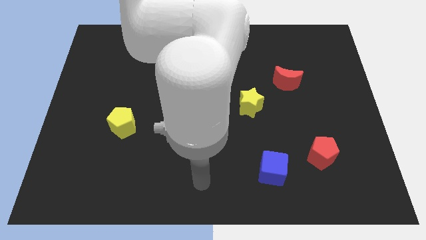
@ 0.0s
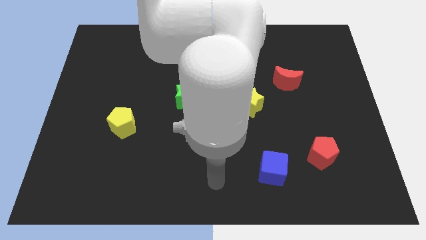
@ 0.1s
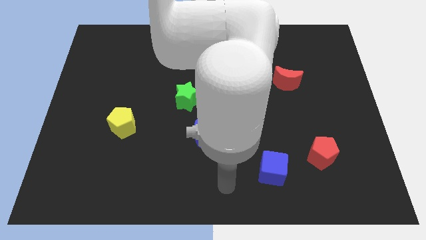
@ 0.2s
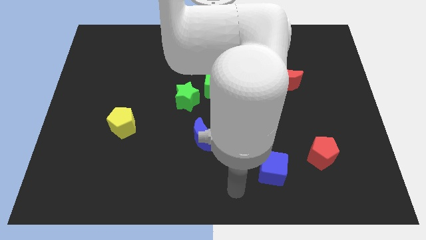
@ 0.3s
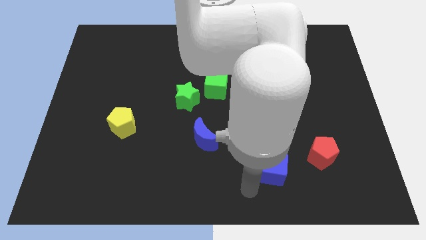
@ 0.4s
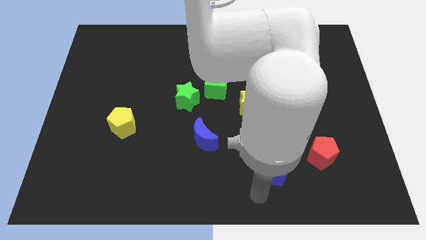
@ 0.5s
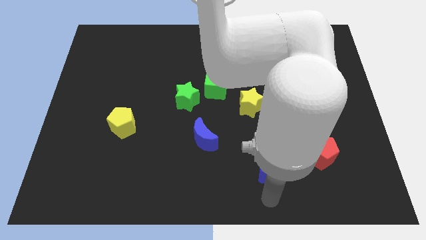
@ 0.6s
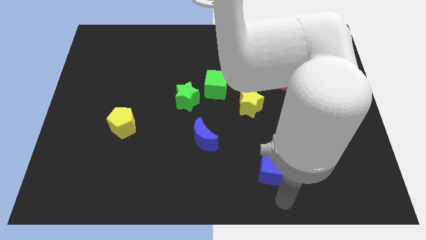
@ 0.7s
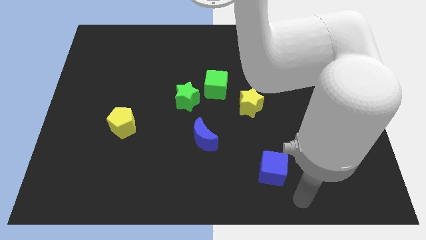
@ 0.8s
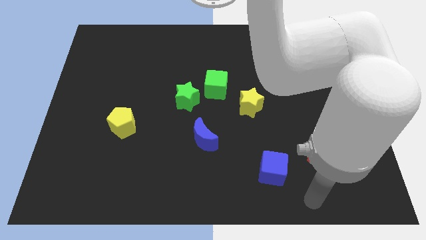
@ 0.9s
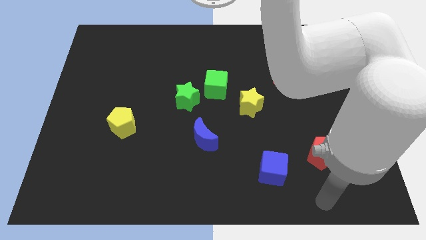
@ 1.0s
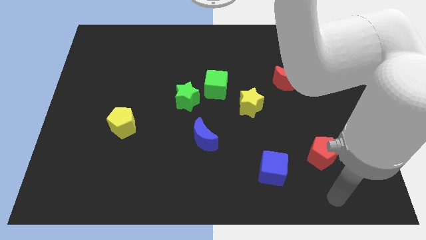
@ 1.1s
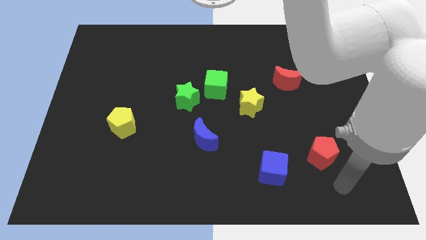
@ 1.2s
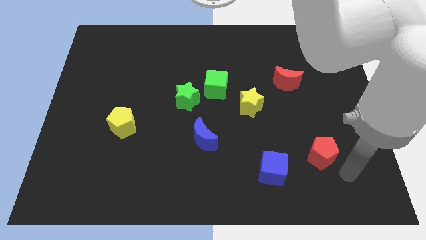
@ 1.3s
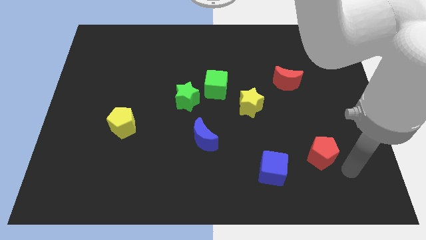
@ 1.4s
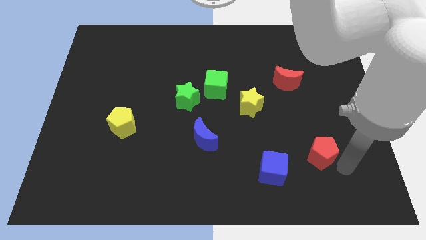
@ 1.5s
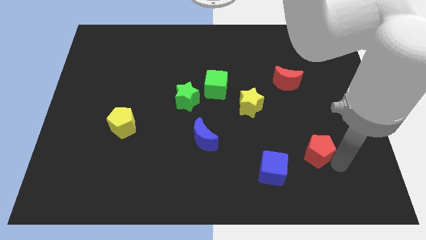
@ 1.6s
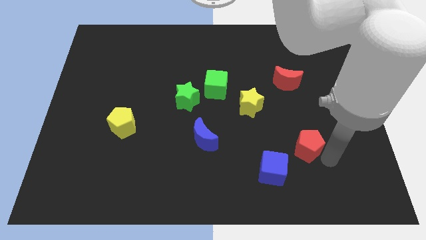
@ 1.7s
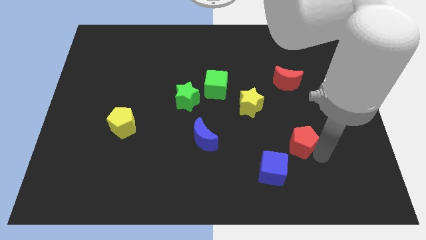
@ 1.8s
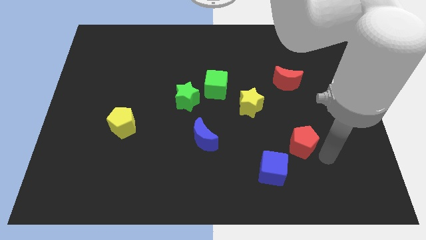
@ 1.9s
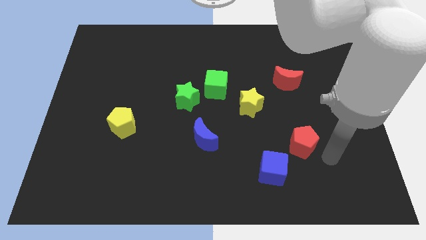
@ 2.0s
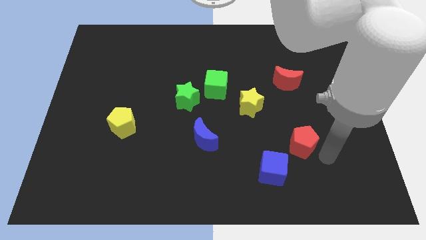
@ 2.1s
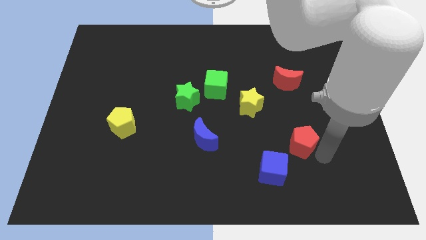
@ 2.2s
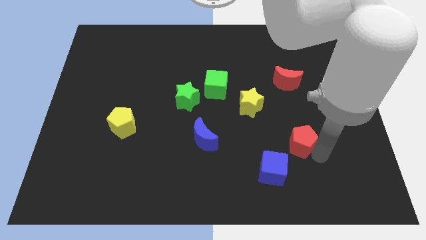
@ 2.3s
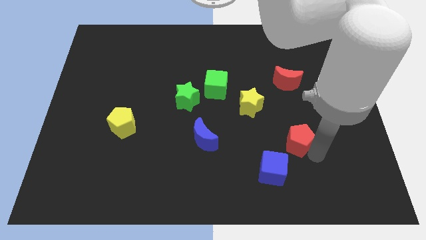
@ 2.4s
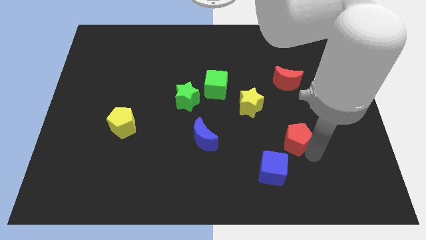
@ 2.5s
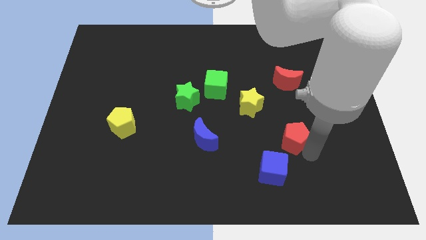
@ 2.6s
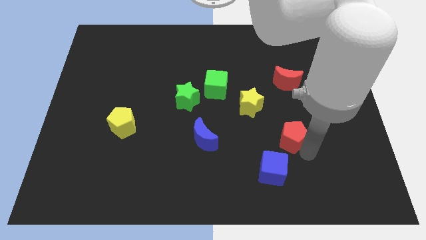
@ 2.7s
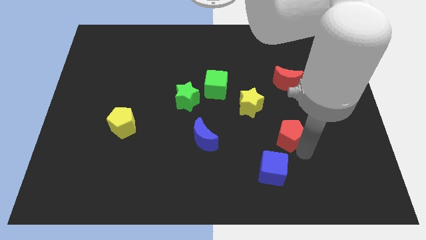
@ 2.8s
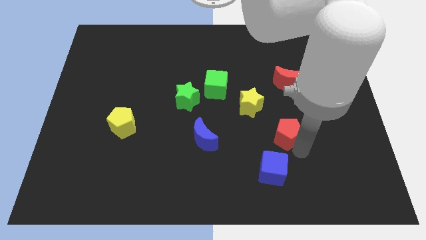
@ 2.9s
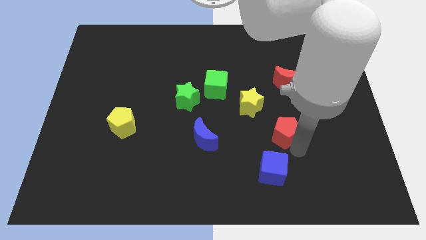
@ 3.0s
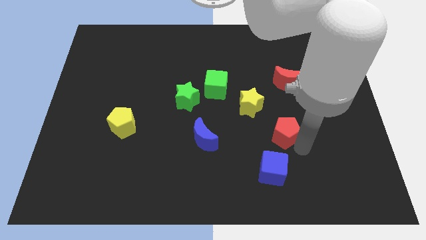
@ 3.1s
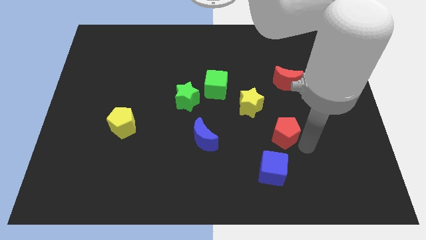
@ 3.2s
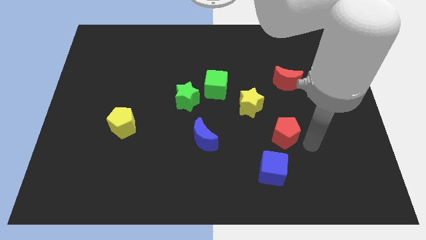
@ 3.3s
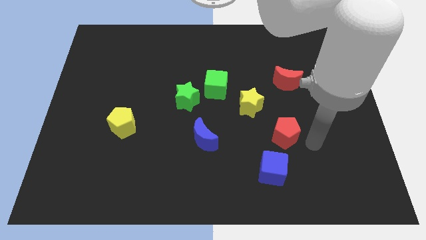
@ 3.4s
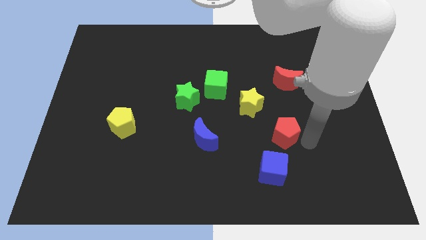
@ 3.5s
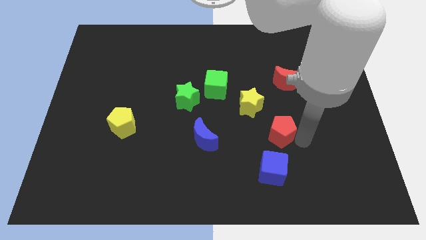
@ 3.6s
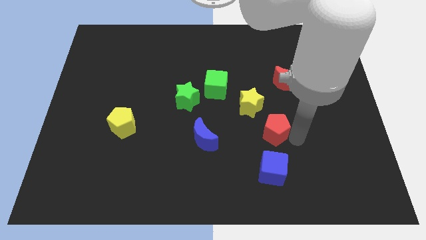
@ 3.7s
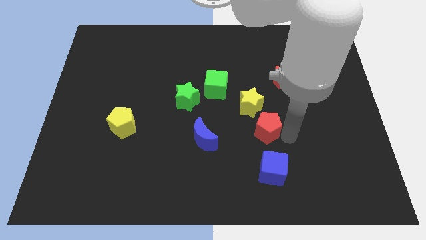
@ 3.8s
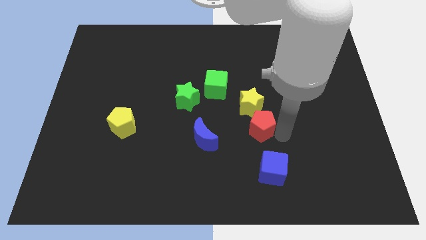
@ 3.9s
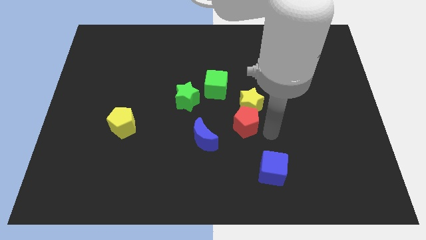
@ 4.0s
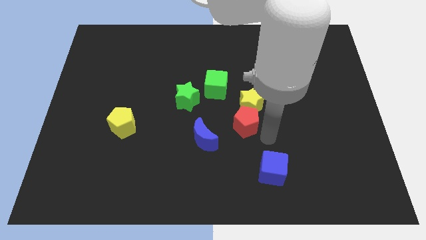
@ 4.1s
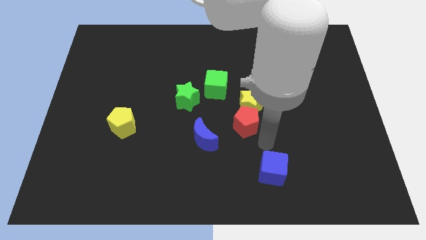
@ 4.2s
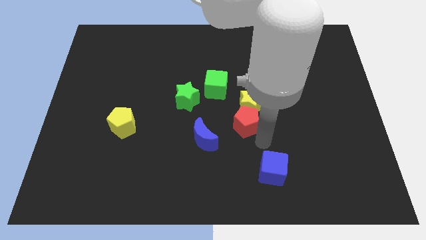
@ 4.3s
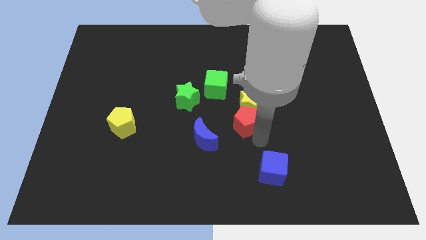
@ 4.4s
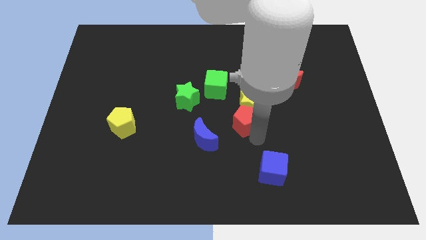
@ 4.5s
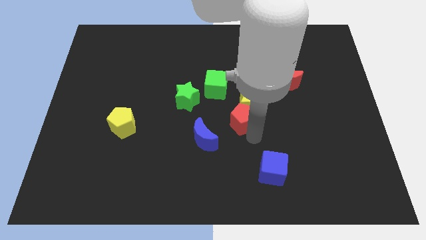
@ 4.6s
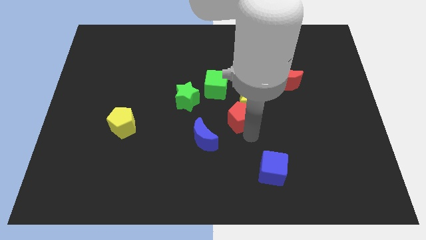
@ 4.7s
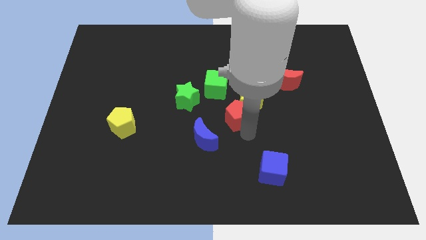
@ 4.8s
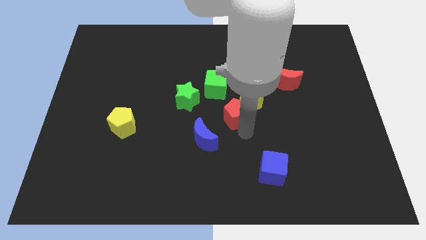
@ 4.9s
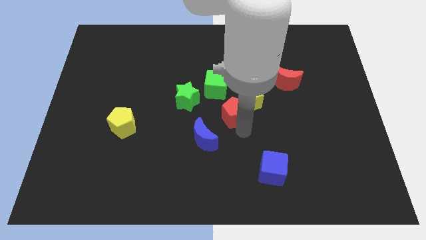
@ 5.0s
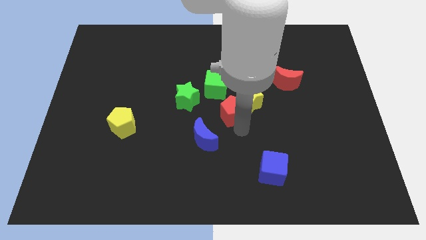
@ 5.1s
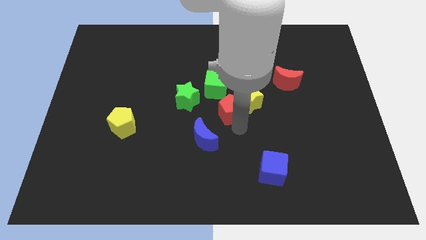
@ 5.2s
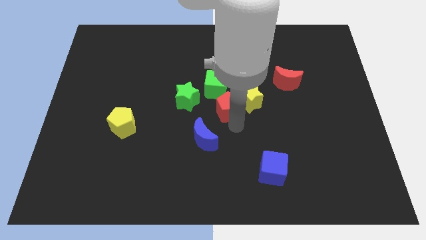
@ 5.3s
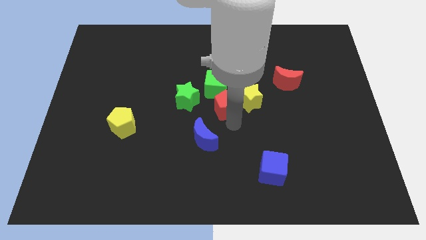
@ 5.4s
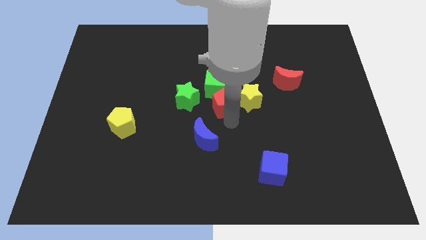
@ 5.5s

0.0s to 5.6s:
push the red pentagon towards the green cube

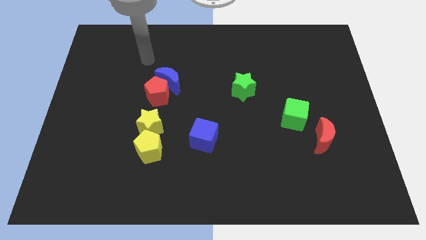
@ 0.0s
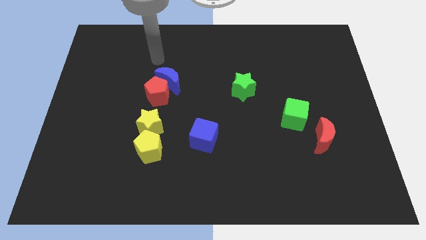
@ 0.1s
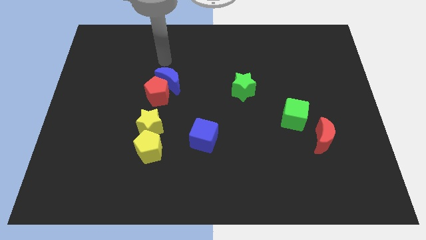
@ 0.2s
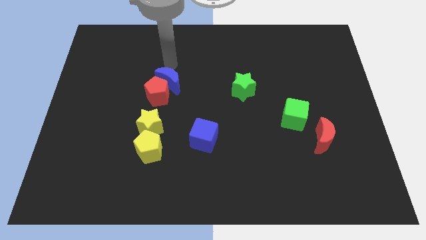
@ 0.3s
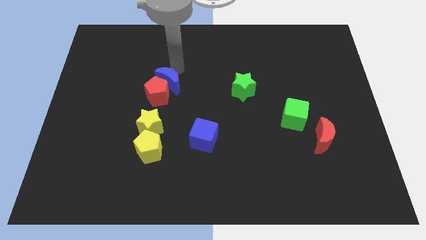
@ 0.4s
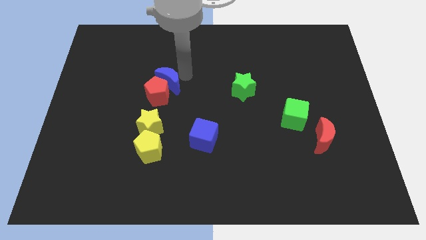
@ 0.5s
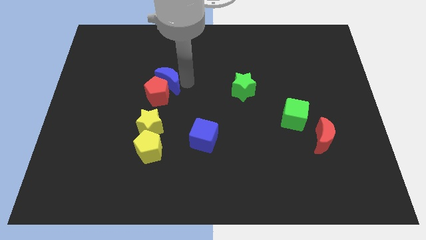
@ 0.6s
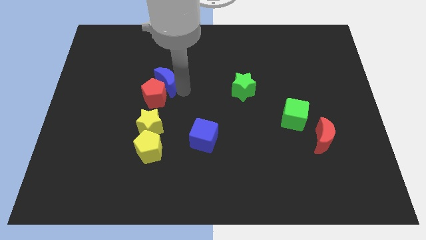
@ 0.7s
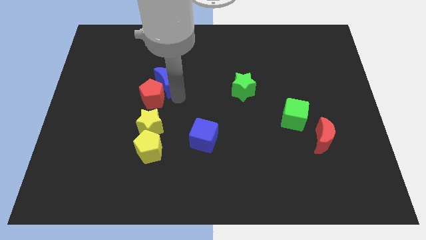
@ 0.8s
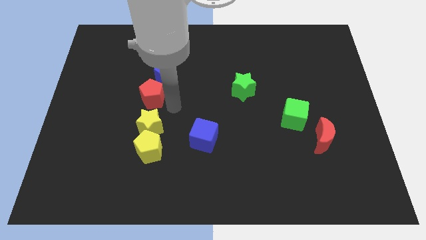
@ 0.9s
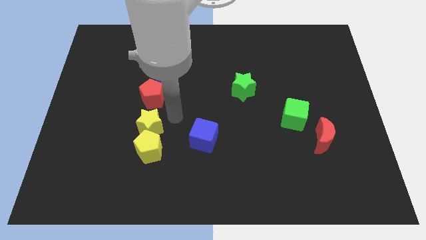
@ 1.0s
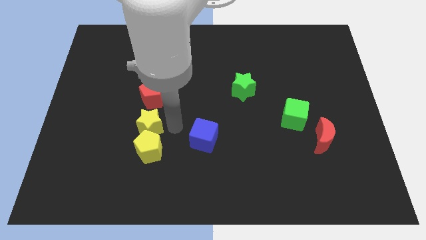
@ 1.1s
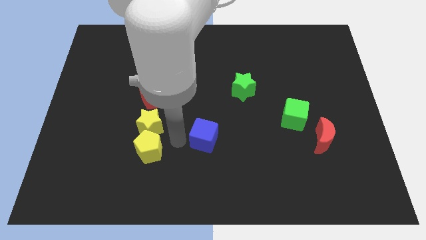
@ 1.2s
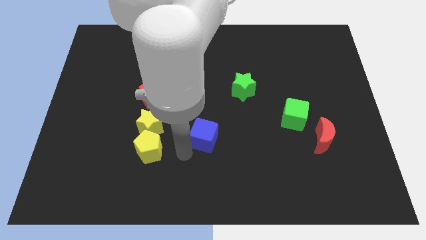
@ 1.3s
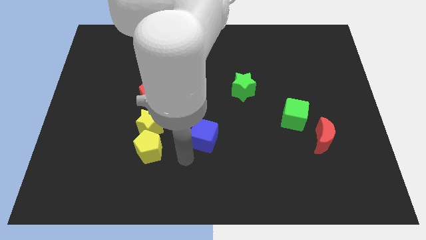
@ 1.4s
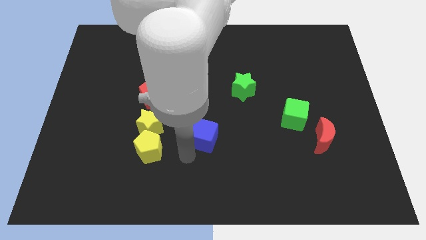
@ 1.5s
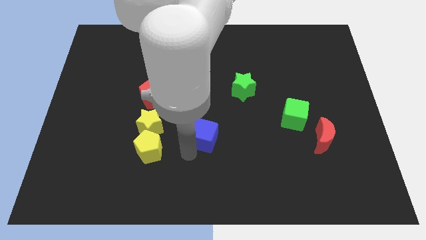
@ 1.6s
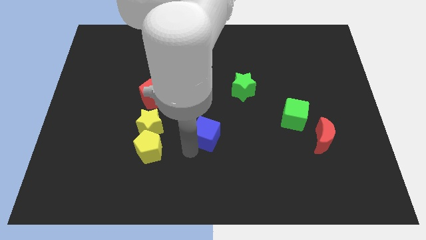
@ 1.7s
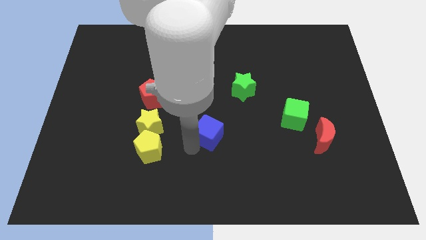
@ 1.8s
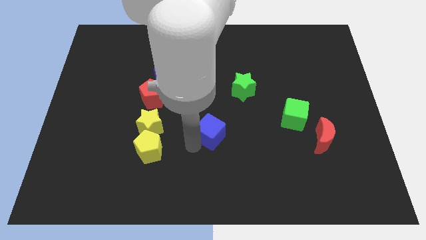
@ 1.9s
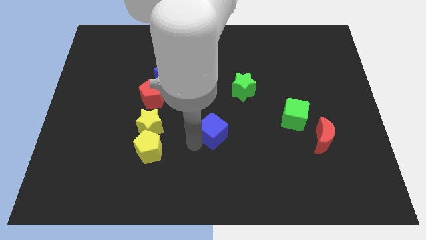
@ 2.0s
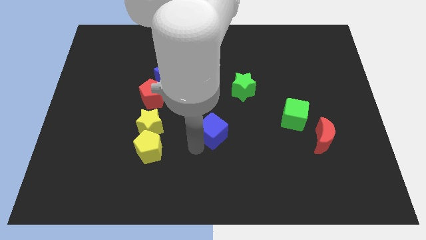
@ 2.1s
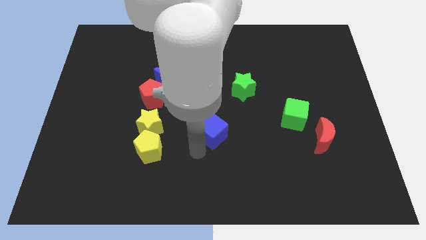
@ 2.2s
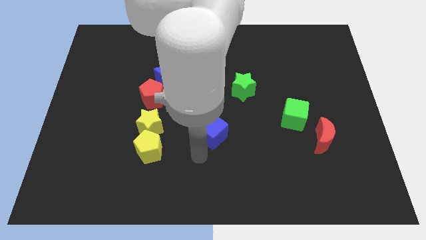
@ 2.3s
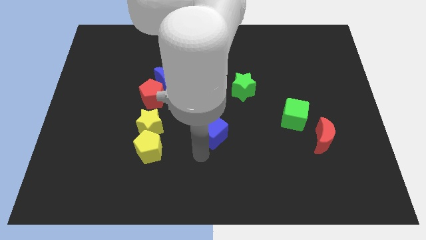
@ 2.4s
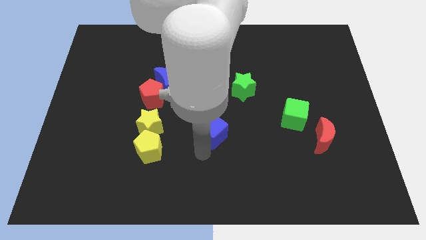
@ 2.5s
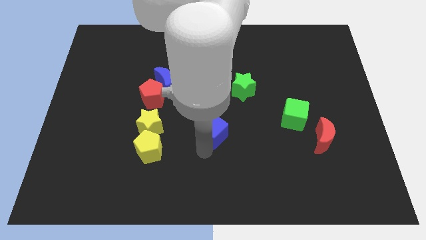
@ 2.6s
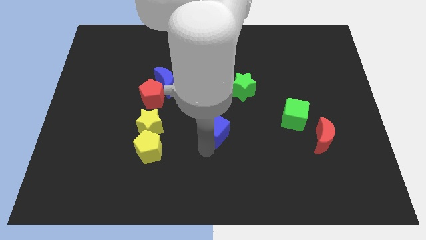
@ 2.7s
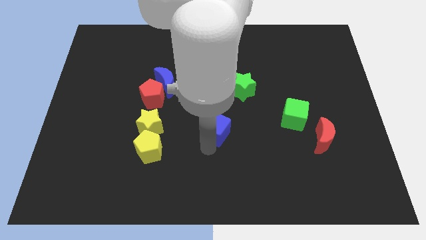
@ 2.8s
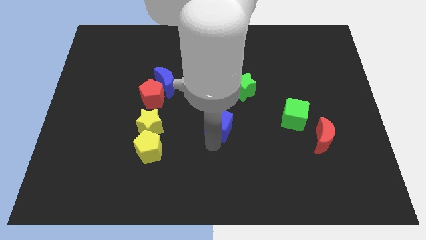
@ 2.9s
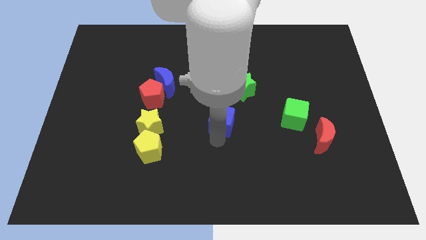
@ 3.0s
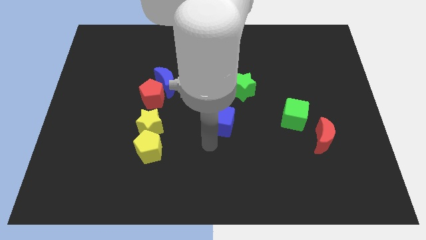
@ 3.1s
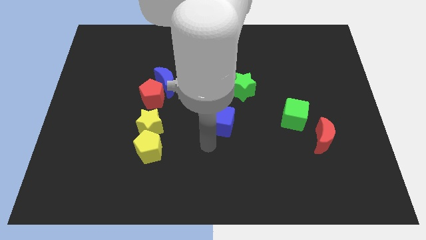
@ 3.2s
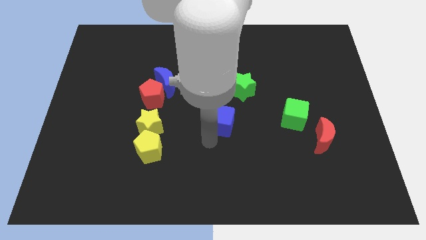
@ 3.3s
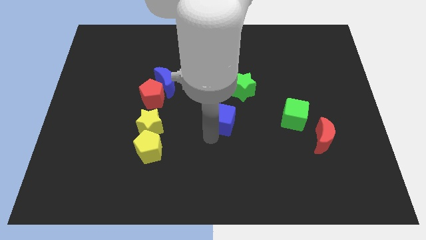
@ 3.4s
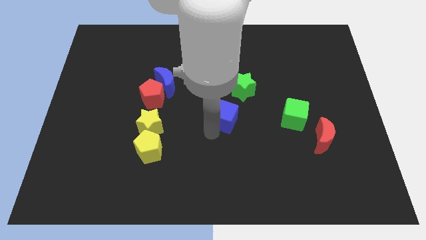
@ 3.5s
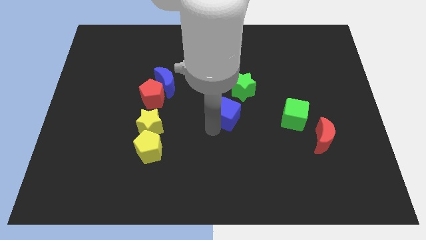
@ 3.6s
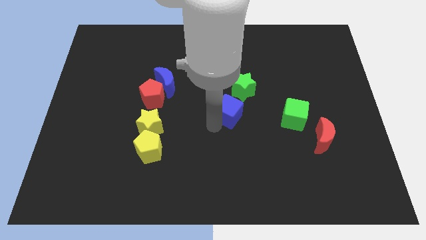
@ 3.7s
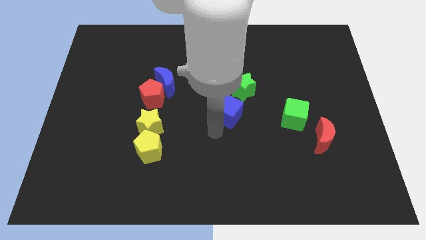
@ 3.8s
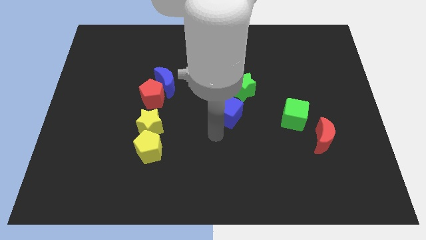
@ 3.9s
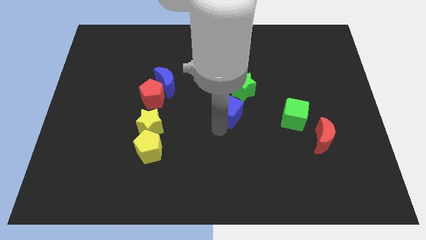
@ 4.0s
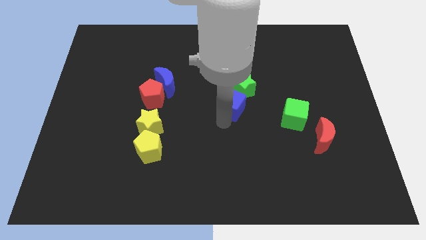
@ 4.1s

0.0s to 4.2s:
slide the blue cube close to the green star
